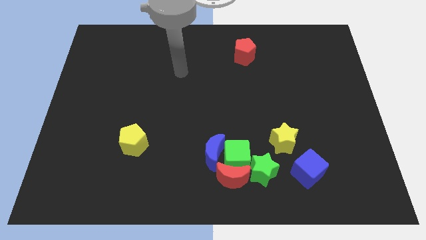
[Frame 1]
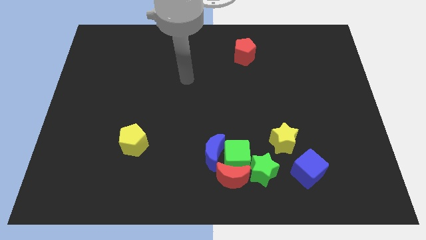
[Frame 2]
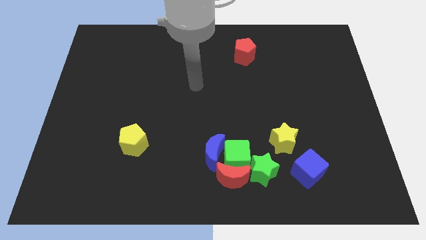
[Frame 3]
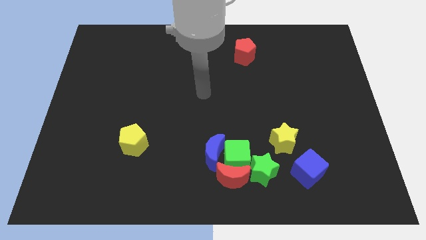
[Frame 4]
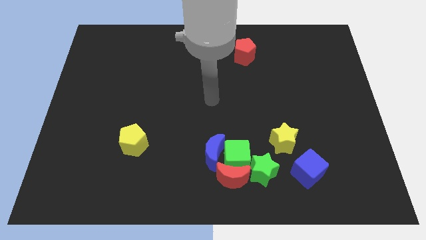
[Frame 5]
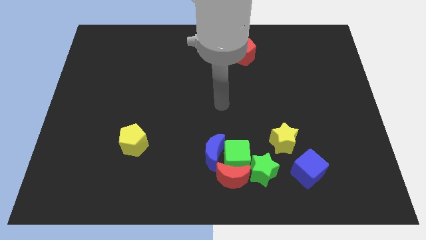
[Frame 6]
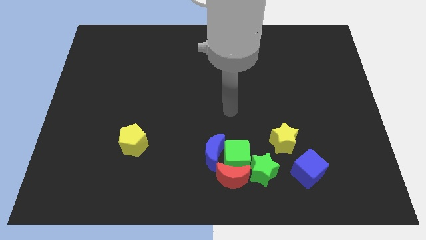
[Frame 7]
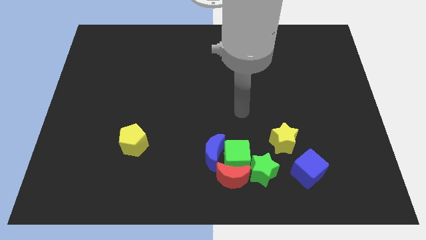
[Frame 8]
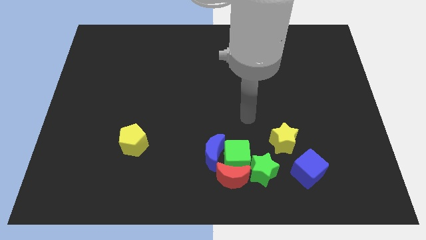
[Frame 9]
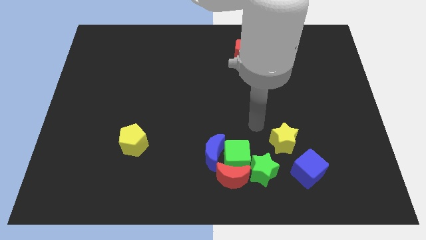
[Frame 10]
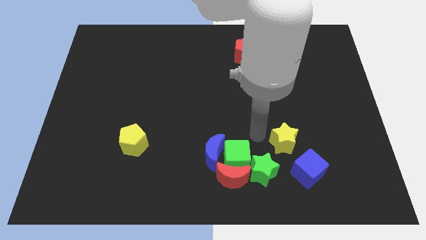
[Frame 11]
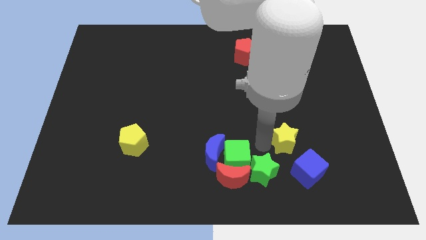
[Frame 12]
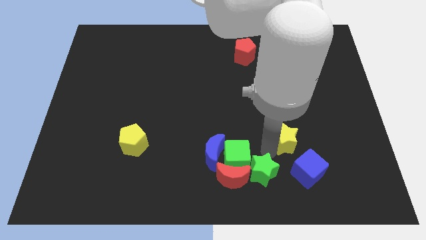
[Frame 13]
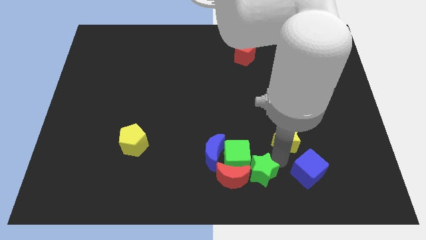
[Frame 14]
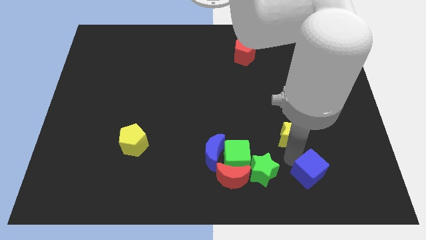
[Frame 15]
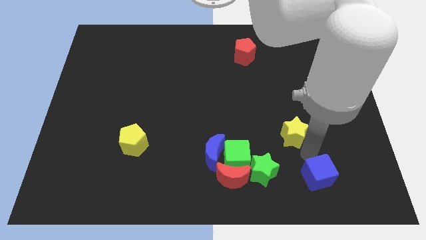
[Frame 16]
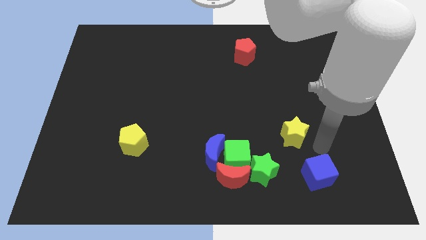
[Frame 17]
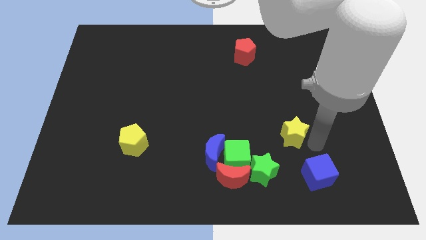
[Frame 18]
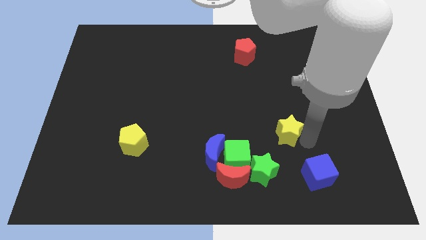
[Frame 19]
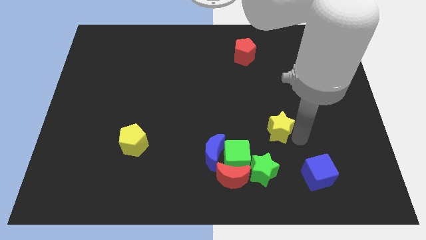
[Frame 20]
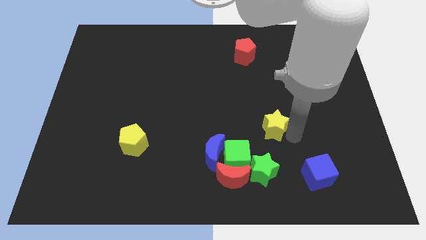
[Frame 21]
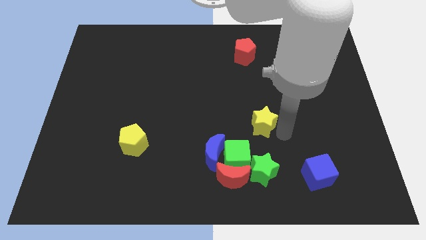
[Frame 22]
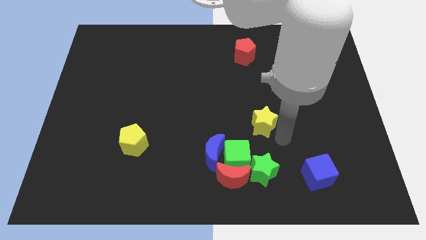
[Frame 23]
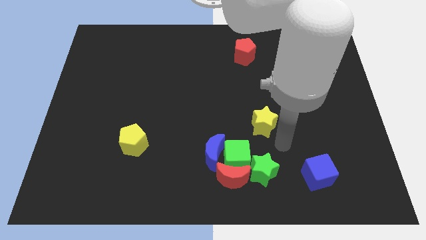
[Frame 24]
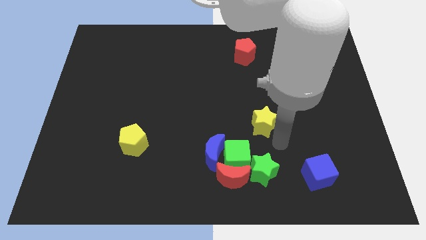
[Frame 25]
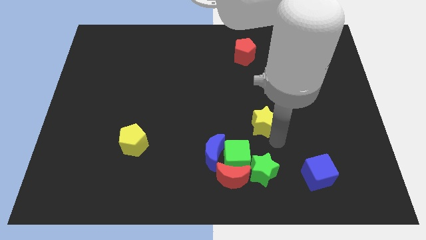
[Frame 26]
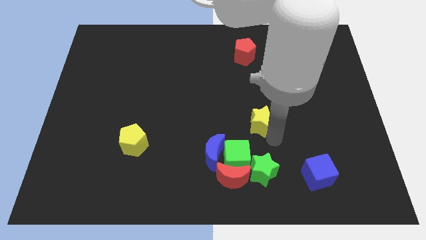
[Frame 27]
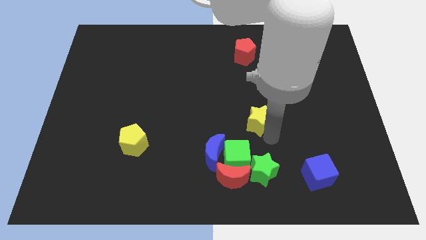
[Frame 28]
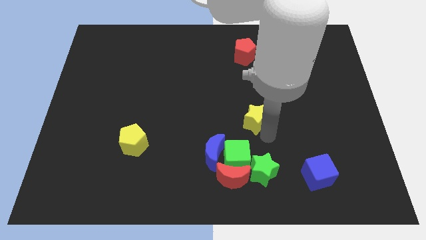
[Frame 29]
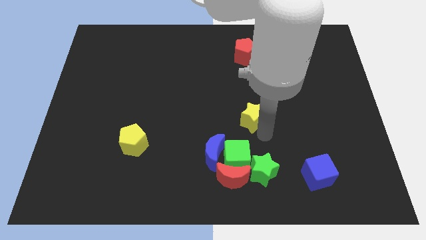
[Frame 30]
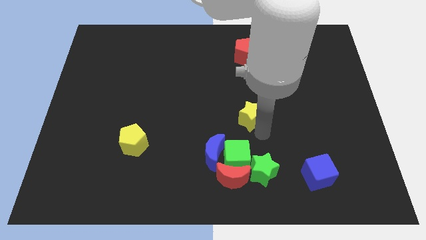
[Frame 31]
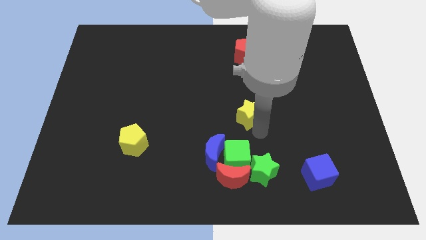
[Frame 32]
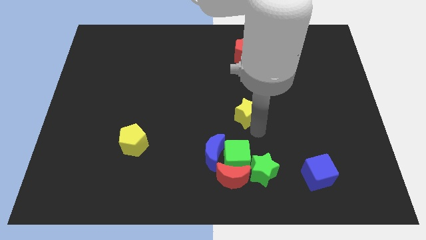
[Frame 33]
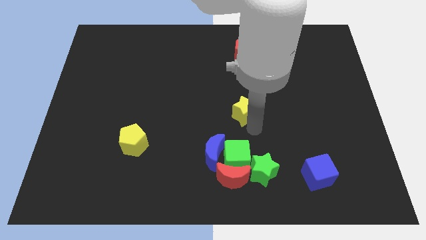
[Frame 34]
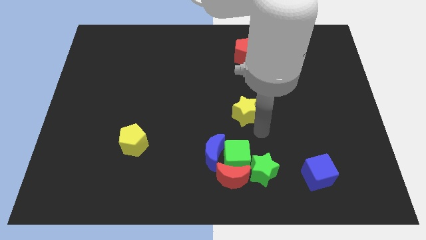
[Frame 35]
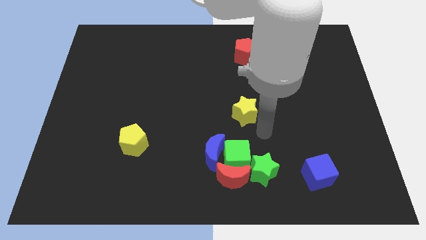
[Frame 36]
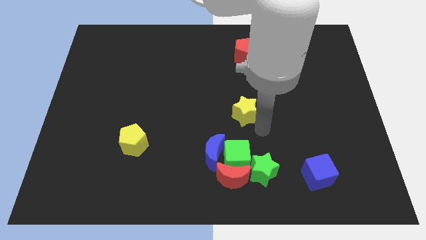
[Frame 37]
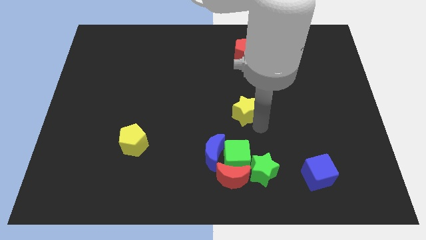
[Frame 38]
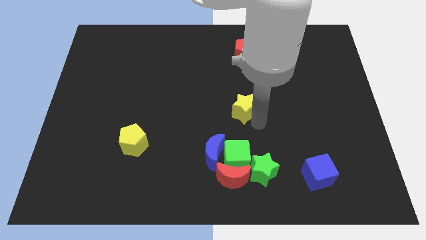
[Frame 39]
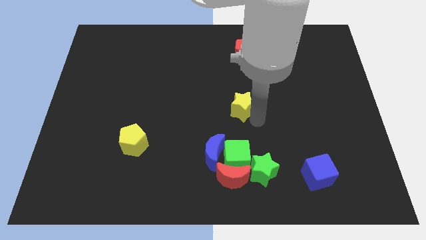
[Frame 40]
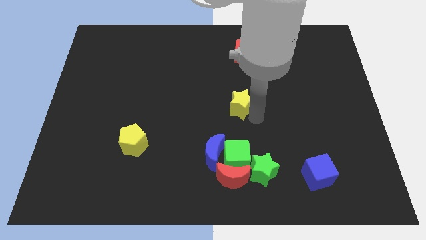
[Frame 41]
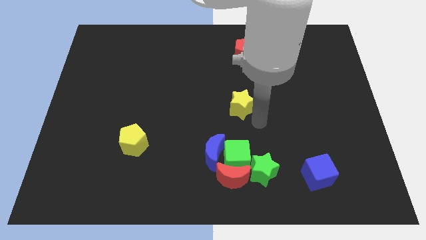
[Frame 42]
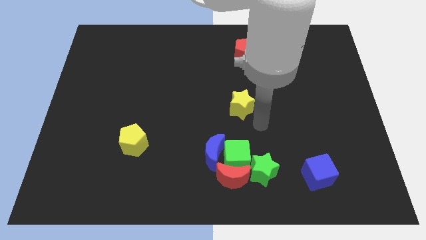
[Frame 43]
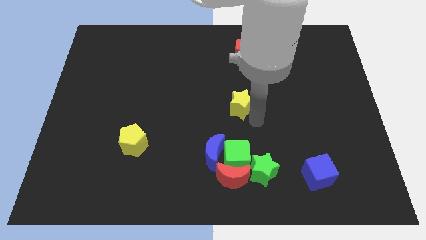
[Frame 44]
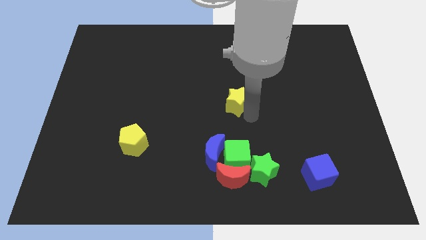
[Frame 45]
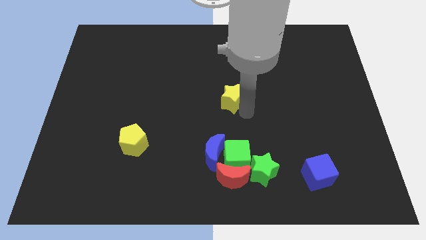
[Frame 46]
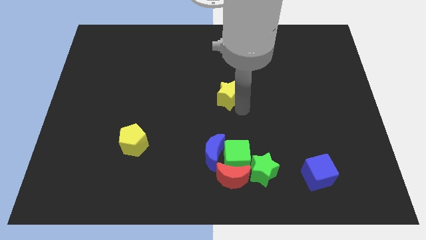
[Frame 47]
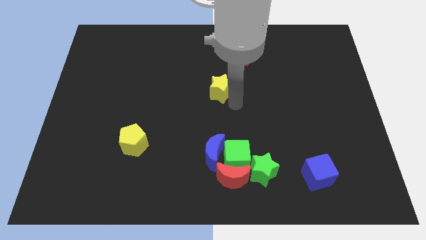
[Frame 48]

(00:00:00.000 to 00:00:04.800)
slide the yellow star diagonally up and to the left

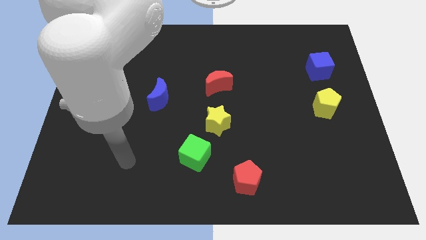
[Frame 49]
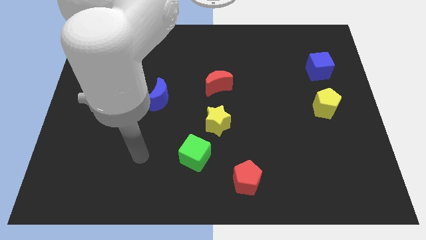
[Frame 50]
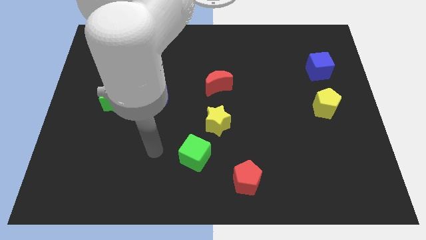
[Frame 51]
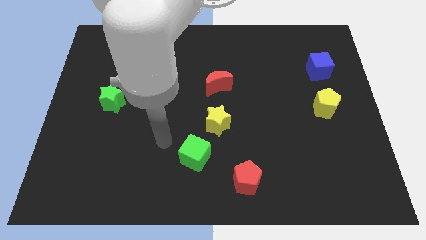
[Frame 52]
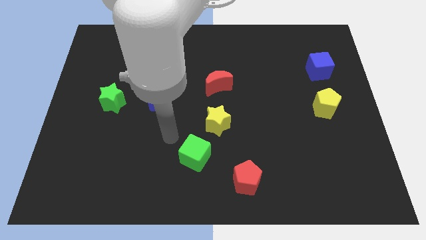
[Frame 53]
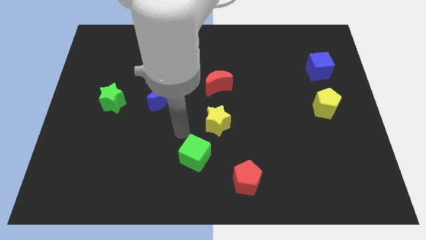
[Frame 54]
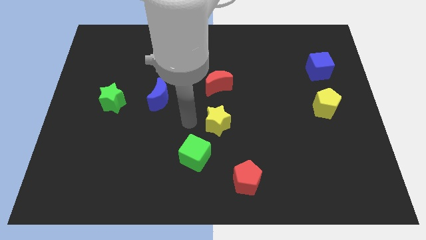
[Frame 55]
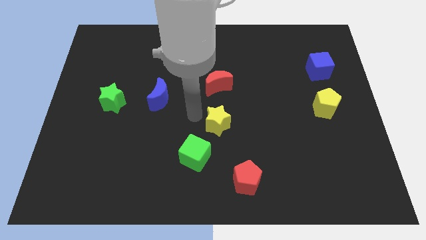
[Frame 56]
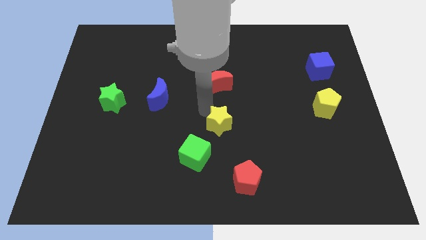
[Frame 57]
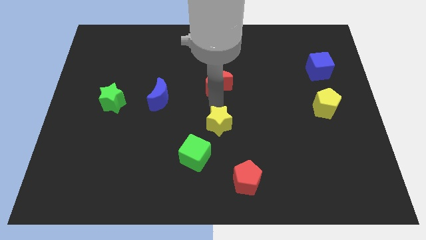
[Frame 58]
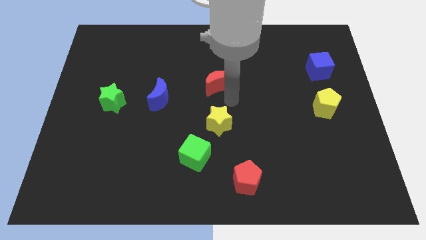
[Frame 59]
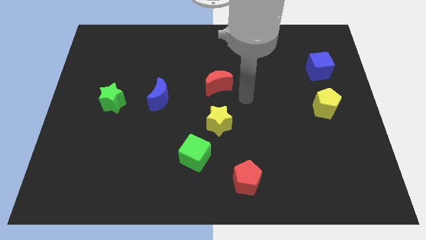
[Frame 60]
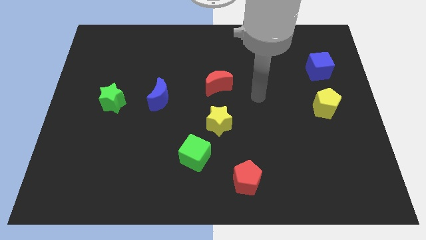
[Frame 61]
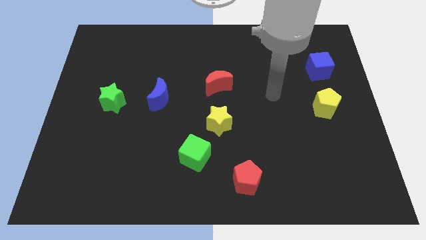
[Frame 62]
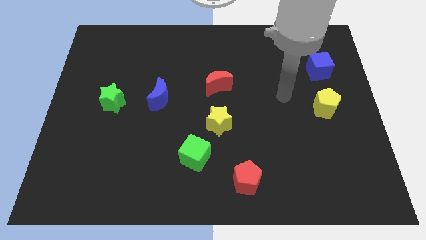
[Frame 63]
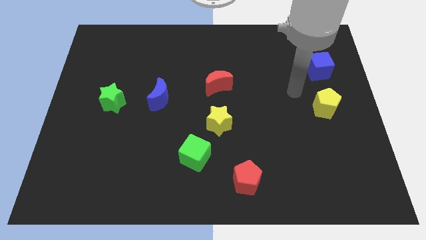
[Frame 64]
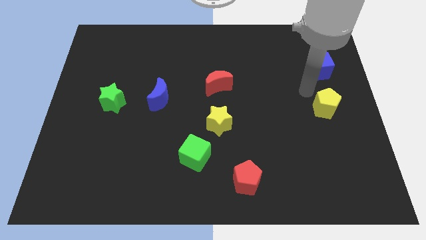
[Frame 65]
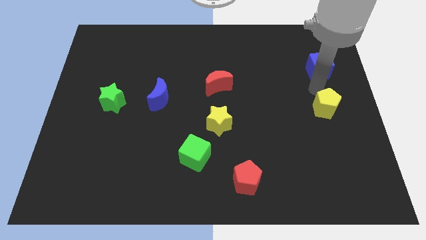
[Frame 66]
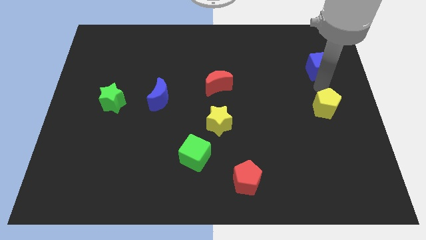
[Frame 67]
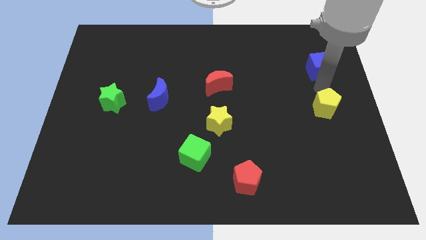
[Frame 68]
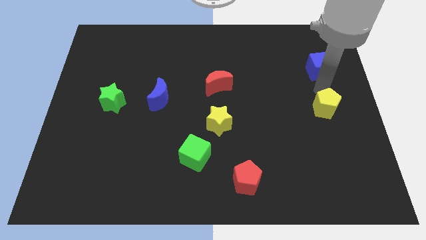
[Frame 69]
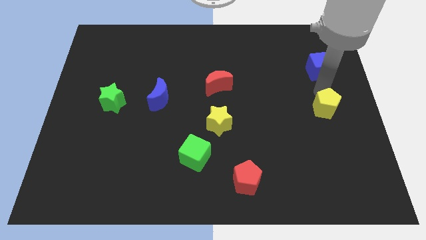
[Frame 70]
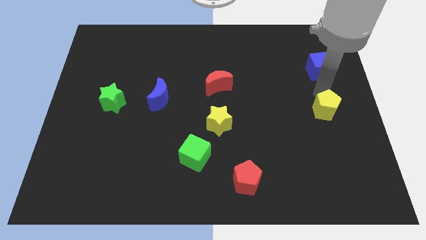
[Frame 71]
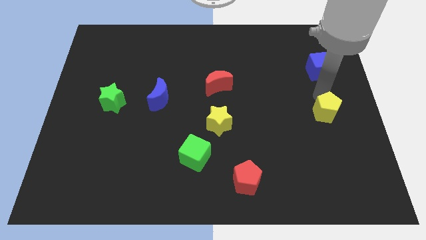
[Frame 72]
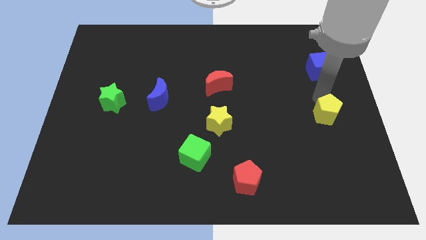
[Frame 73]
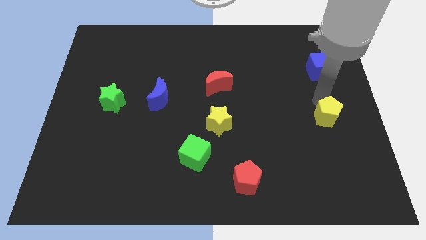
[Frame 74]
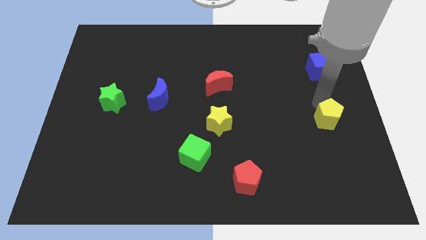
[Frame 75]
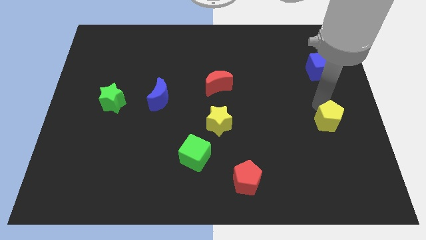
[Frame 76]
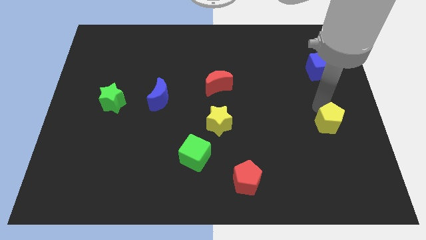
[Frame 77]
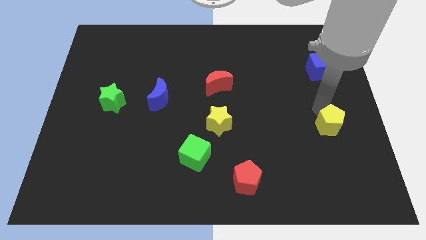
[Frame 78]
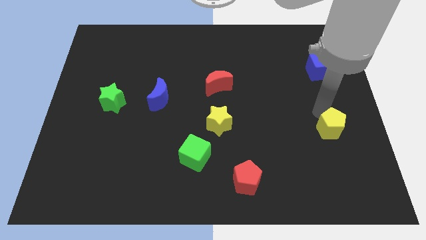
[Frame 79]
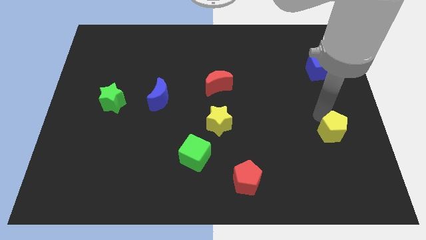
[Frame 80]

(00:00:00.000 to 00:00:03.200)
slightly slide the yellow pentagon down

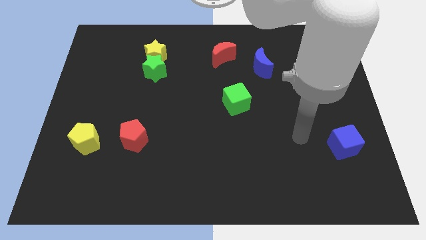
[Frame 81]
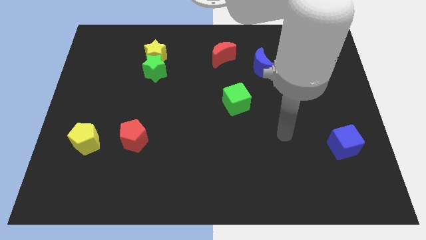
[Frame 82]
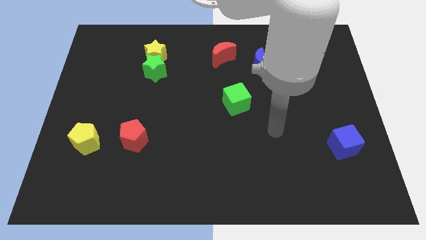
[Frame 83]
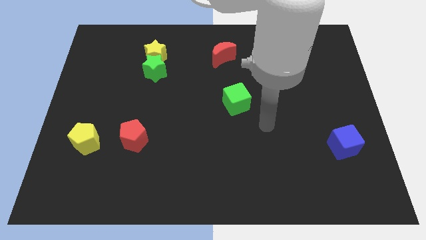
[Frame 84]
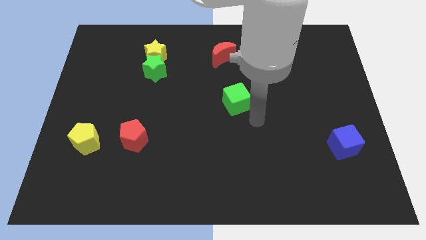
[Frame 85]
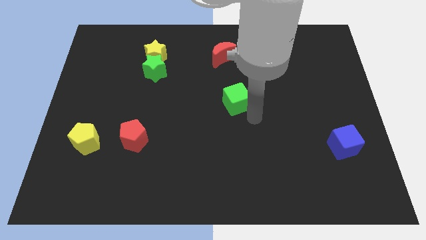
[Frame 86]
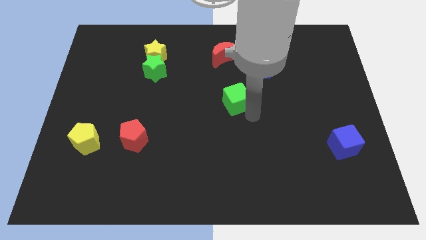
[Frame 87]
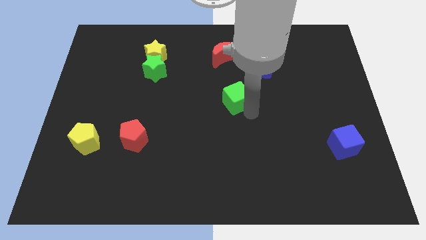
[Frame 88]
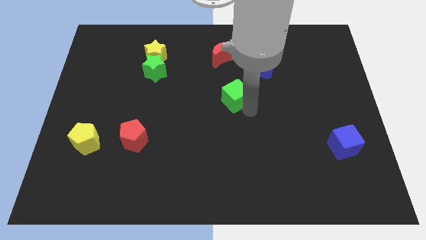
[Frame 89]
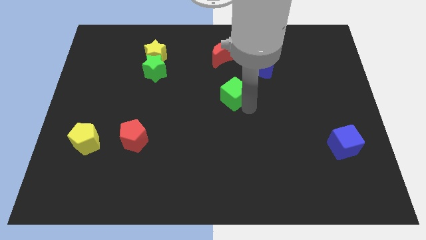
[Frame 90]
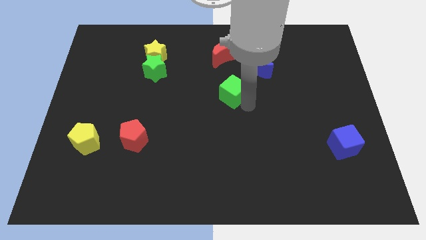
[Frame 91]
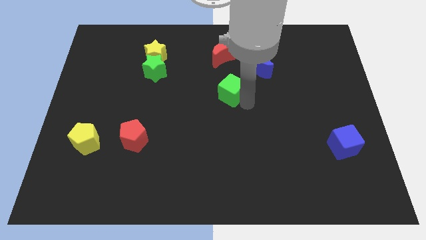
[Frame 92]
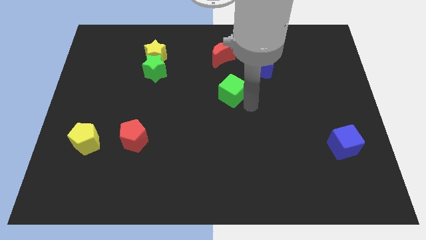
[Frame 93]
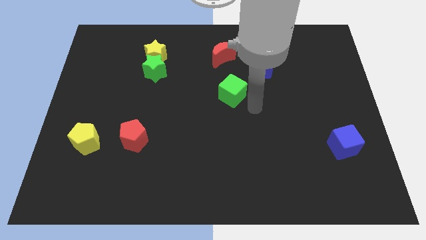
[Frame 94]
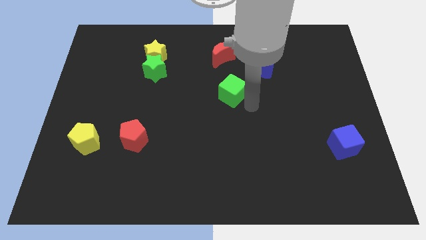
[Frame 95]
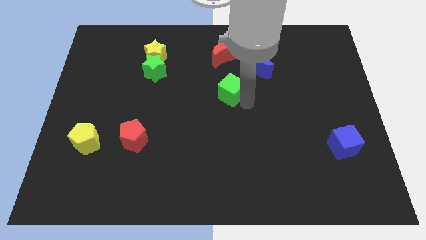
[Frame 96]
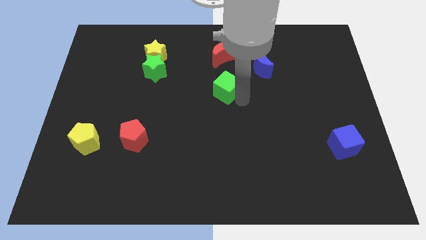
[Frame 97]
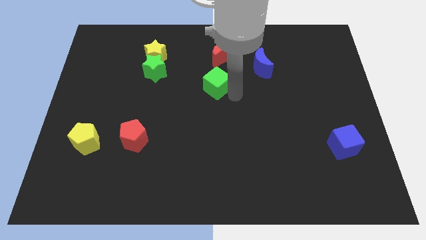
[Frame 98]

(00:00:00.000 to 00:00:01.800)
slightly move the green cube up and to the left diagonally
